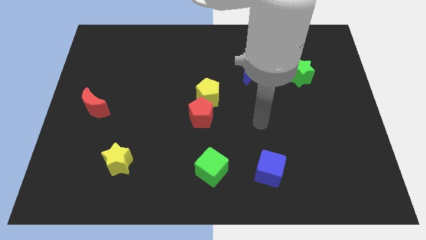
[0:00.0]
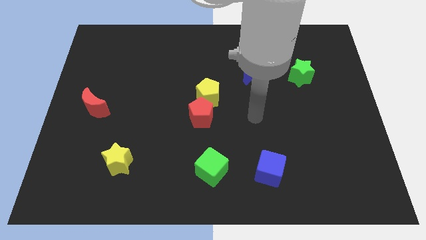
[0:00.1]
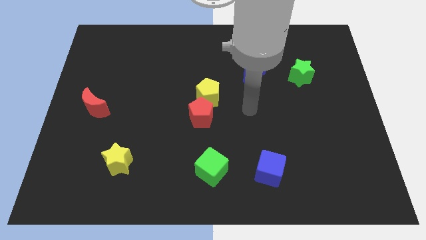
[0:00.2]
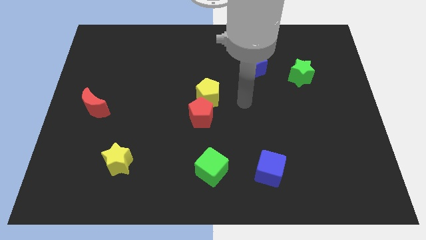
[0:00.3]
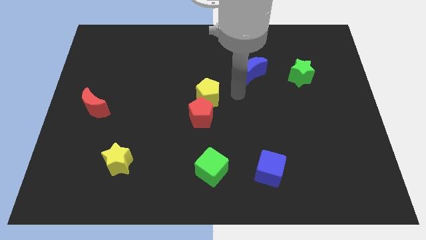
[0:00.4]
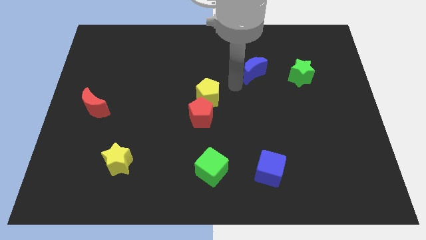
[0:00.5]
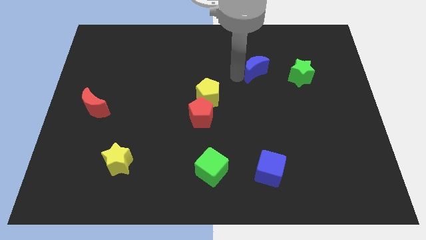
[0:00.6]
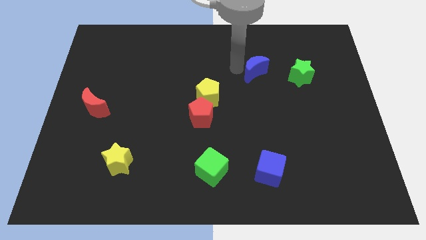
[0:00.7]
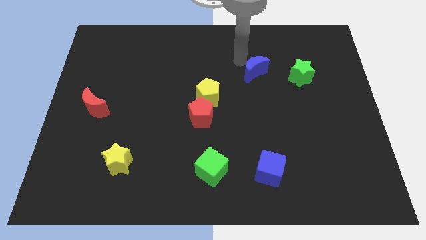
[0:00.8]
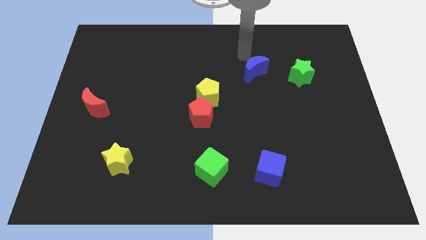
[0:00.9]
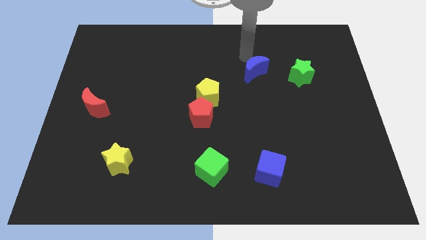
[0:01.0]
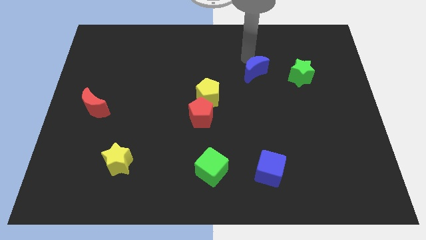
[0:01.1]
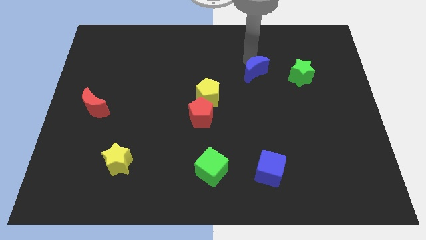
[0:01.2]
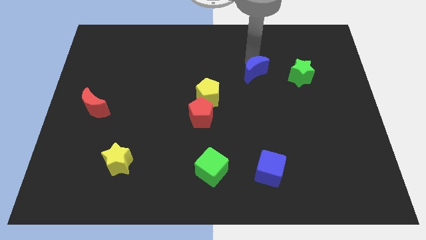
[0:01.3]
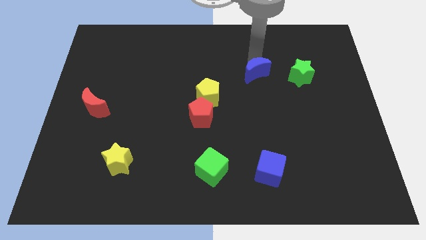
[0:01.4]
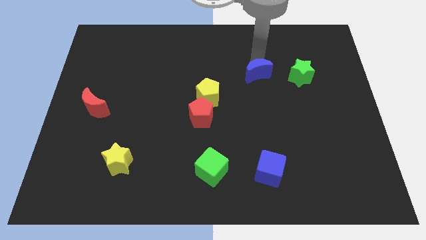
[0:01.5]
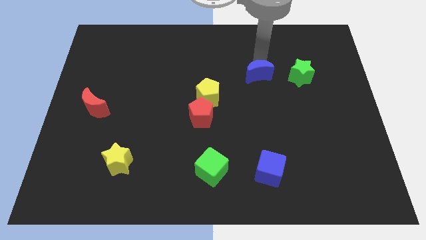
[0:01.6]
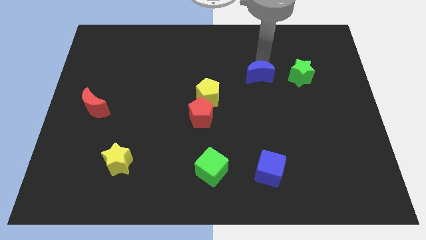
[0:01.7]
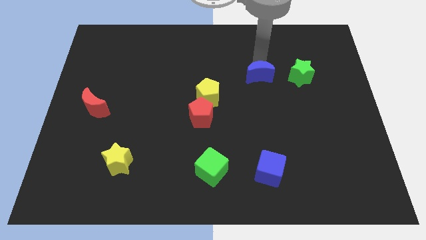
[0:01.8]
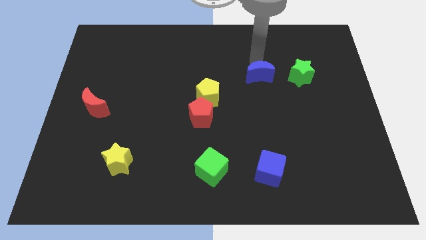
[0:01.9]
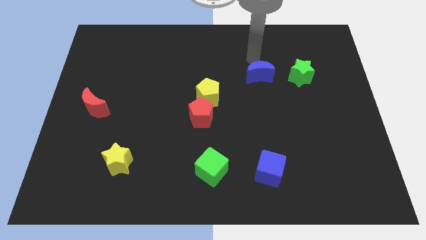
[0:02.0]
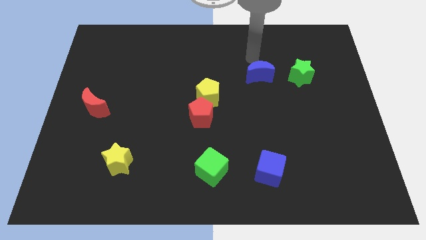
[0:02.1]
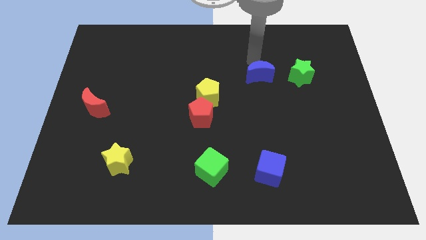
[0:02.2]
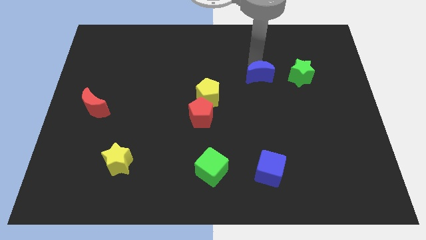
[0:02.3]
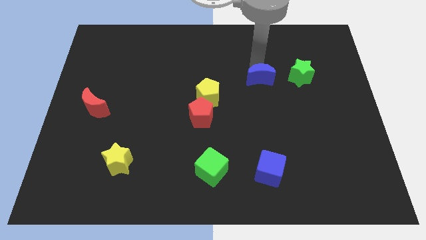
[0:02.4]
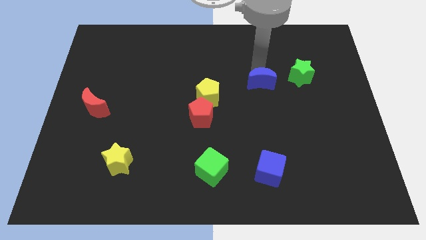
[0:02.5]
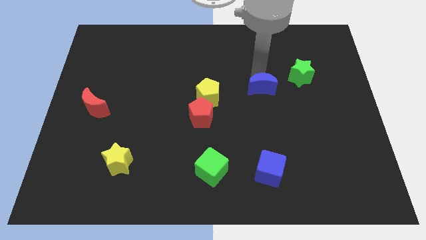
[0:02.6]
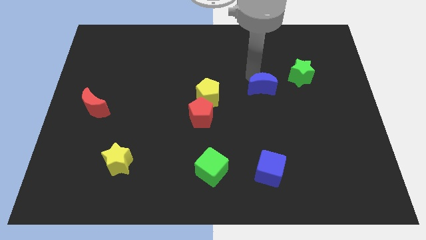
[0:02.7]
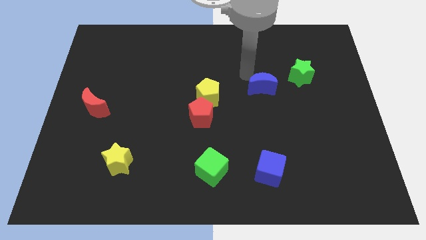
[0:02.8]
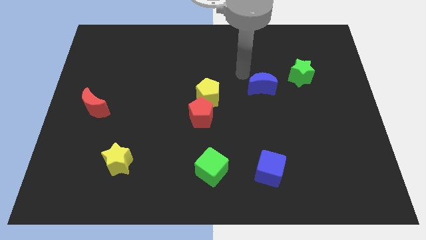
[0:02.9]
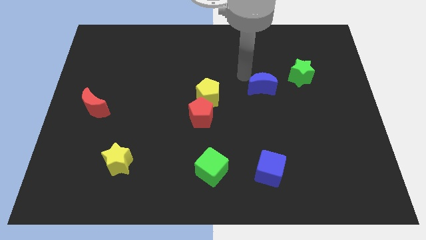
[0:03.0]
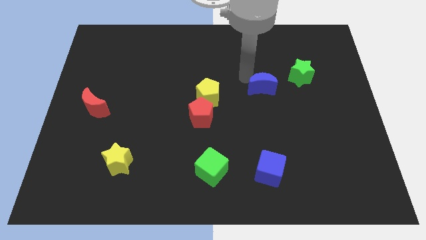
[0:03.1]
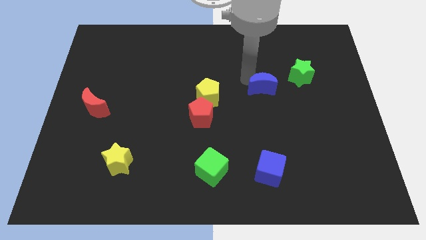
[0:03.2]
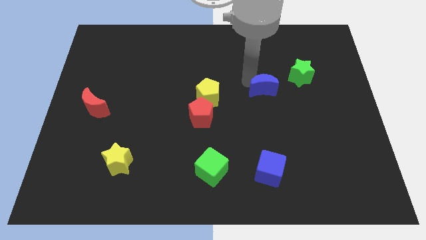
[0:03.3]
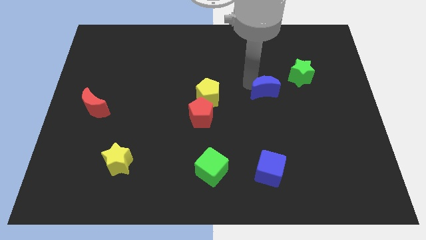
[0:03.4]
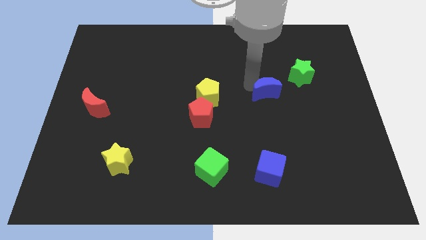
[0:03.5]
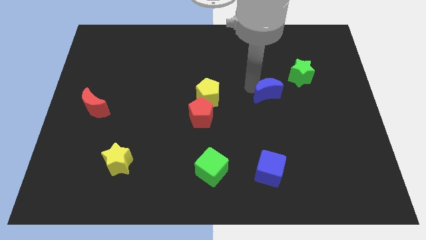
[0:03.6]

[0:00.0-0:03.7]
push the blue moon down and right diagonally slightly

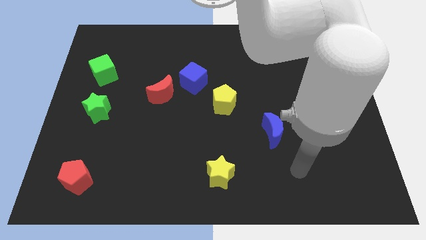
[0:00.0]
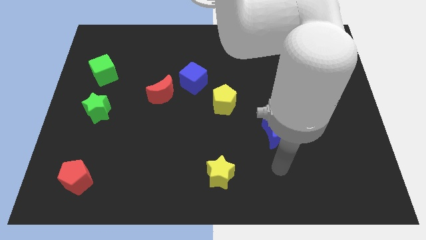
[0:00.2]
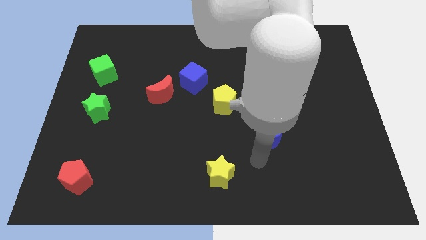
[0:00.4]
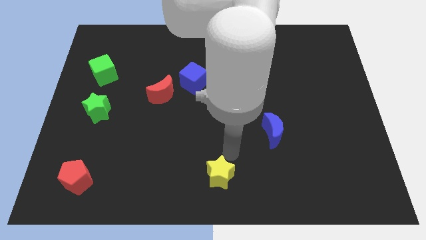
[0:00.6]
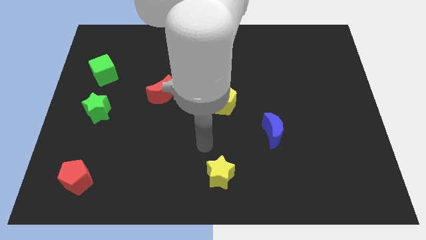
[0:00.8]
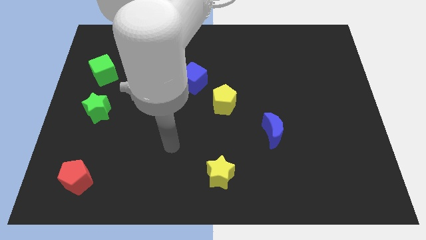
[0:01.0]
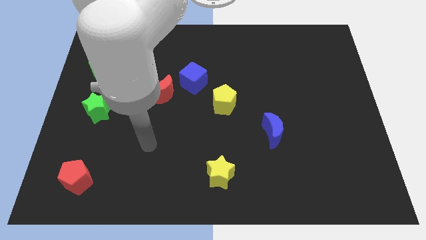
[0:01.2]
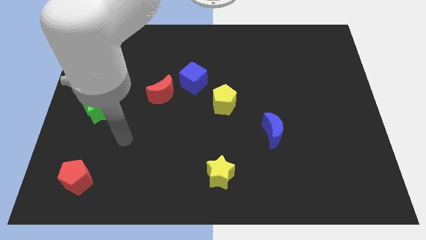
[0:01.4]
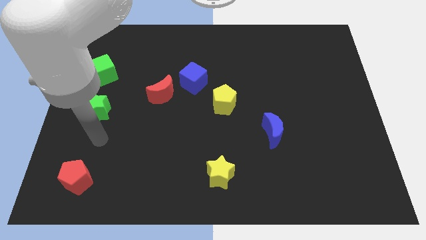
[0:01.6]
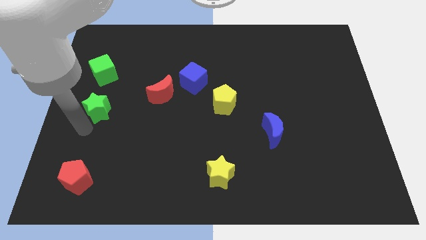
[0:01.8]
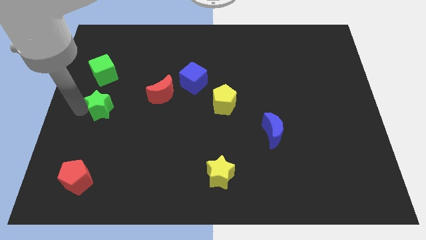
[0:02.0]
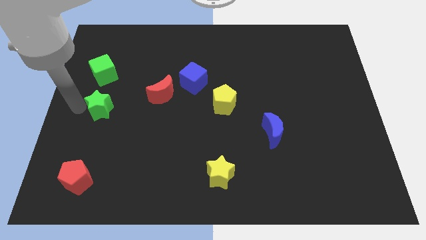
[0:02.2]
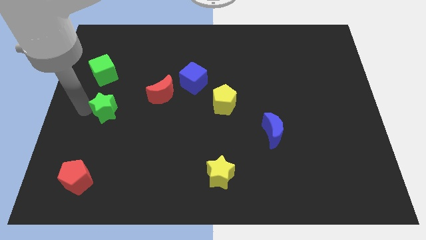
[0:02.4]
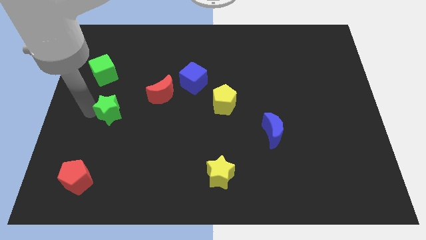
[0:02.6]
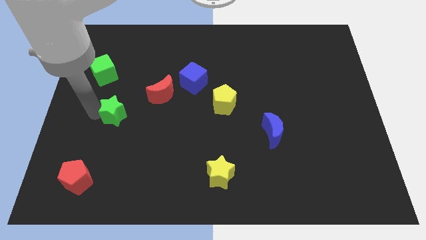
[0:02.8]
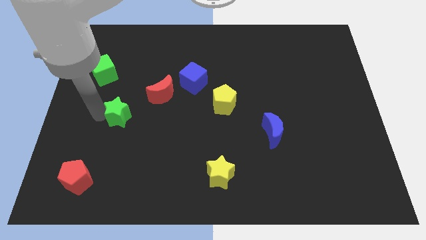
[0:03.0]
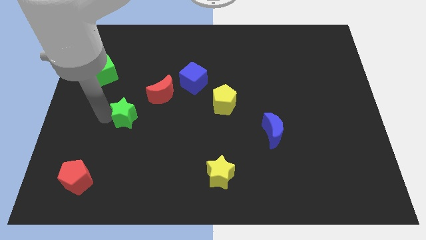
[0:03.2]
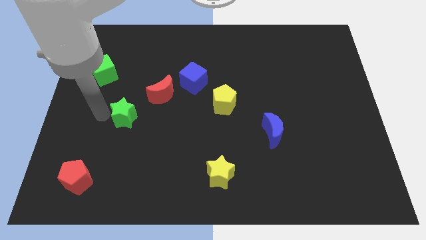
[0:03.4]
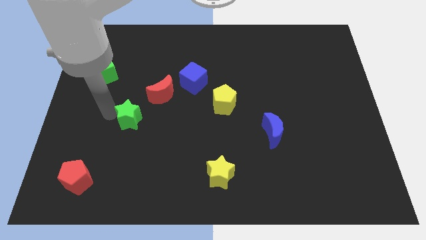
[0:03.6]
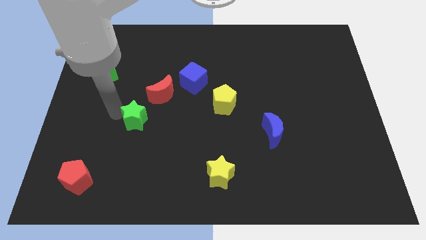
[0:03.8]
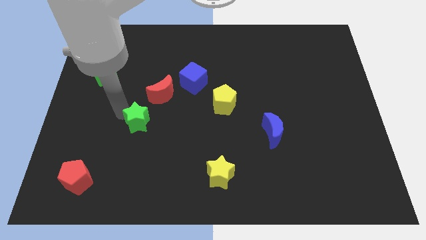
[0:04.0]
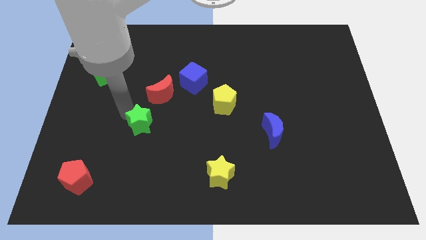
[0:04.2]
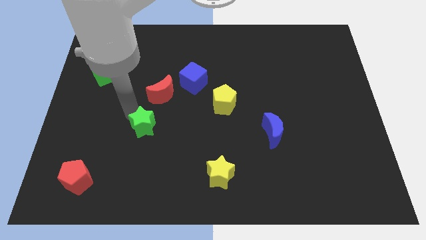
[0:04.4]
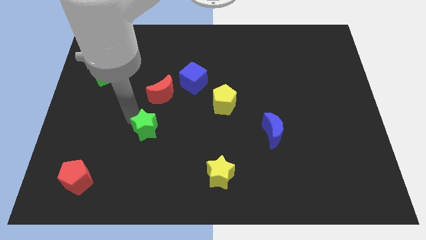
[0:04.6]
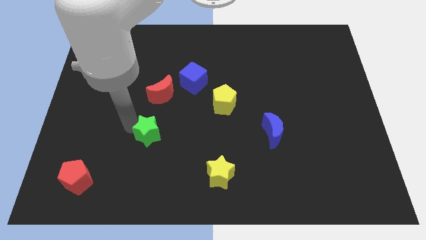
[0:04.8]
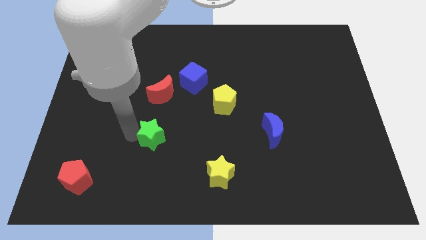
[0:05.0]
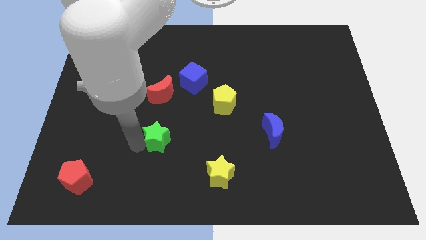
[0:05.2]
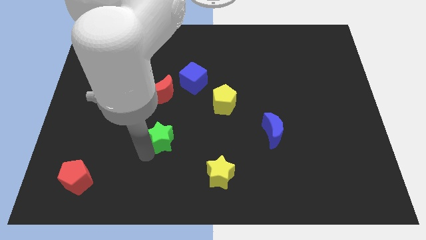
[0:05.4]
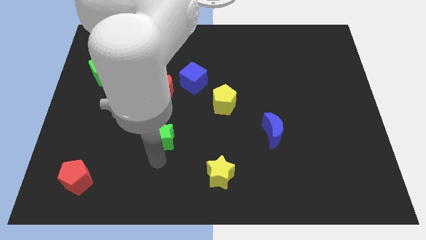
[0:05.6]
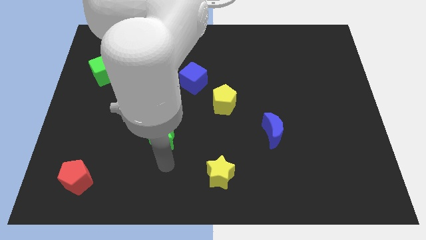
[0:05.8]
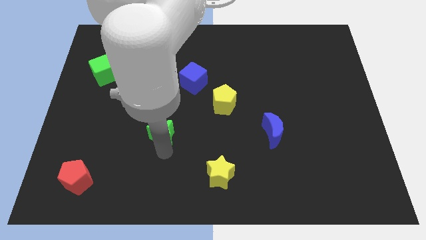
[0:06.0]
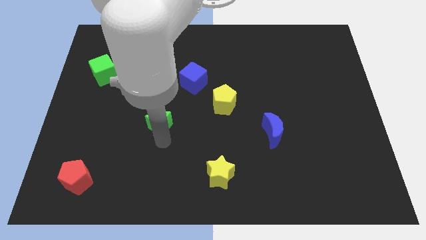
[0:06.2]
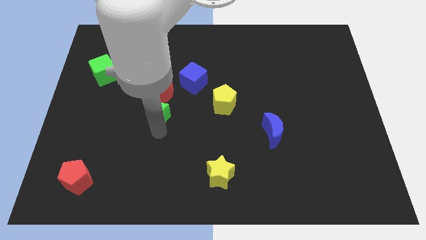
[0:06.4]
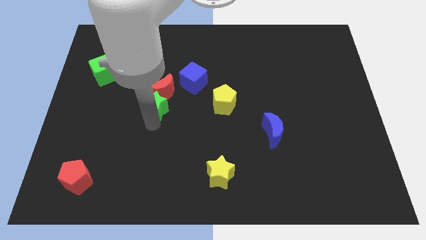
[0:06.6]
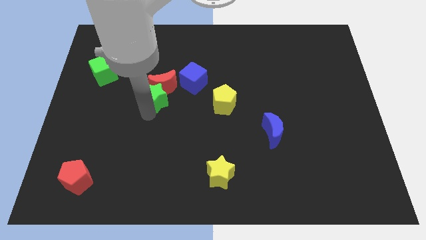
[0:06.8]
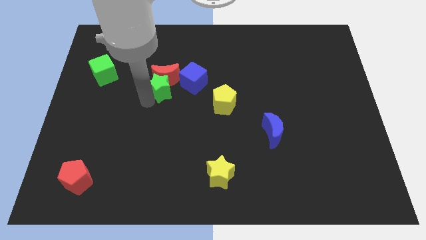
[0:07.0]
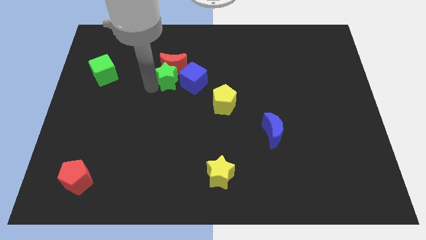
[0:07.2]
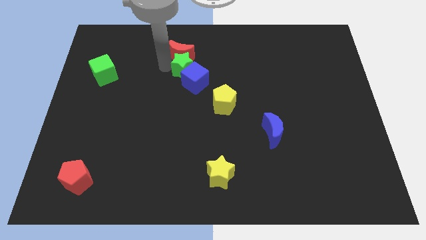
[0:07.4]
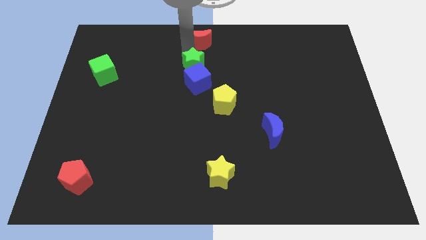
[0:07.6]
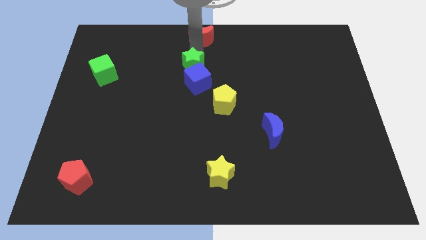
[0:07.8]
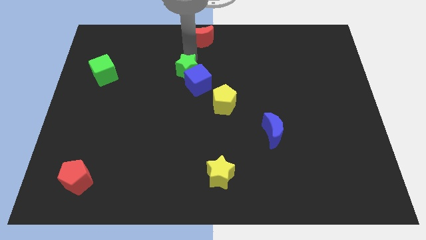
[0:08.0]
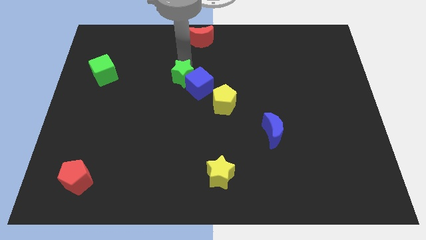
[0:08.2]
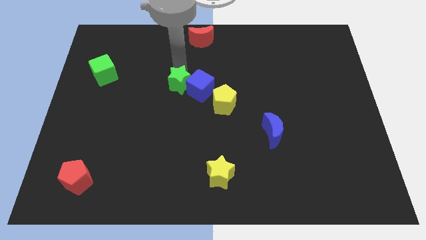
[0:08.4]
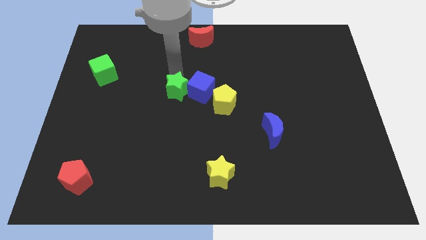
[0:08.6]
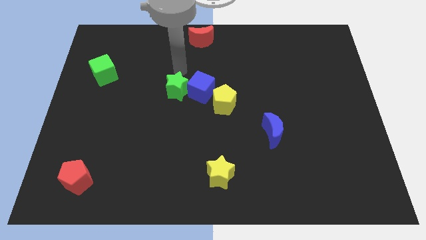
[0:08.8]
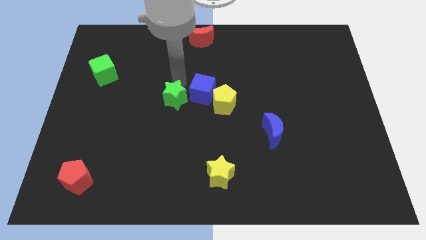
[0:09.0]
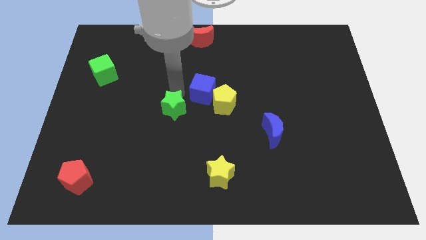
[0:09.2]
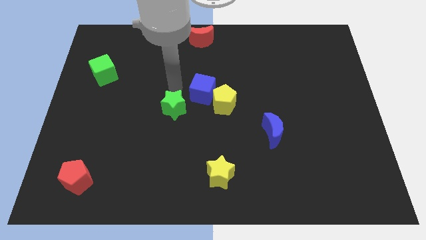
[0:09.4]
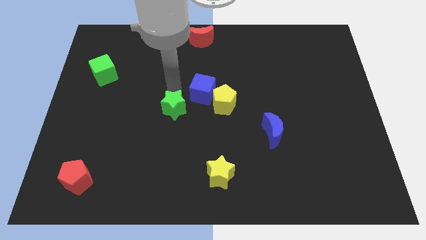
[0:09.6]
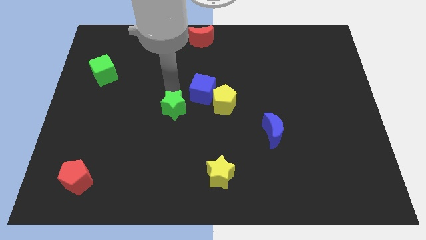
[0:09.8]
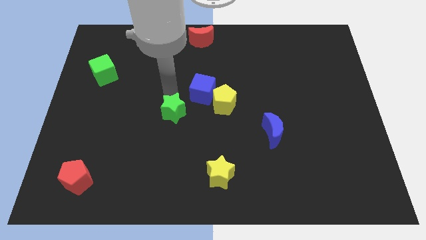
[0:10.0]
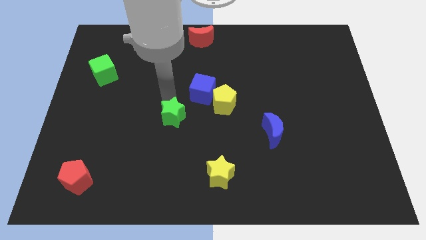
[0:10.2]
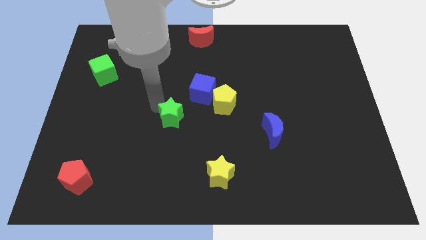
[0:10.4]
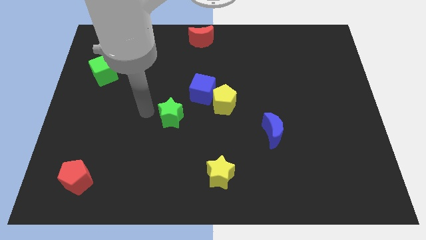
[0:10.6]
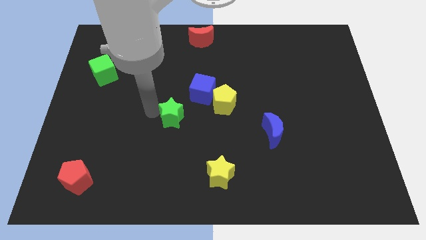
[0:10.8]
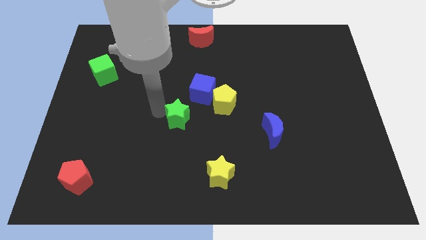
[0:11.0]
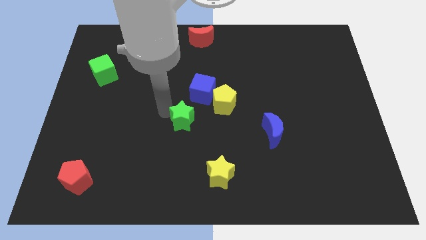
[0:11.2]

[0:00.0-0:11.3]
push the green star to the right
